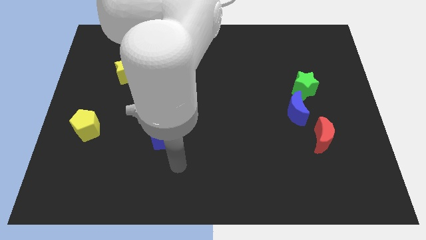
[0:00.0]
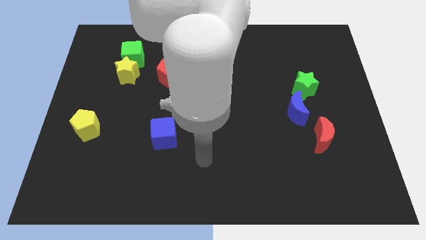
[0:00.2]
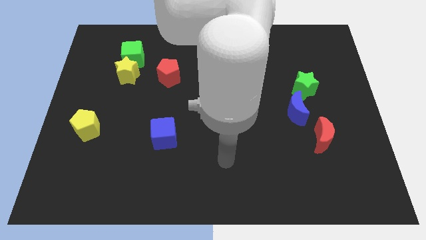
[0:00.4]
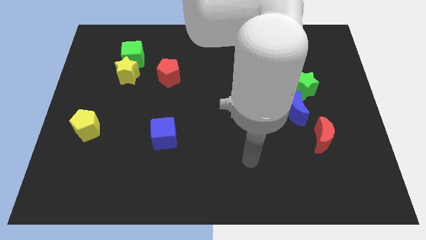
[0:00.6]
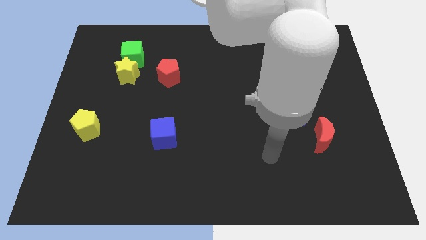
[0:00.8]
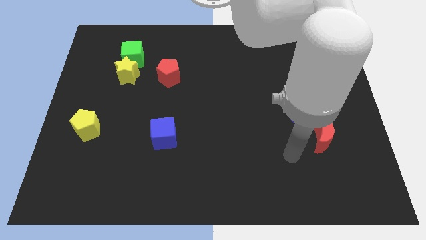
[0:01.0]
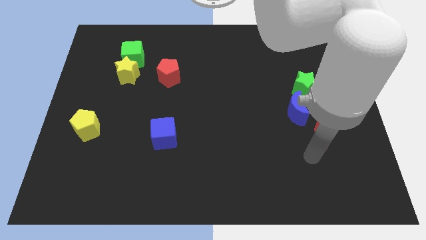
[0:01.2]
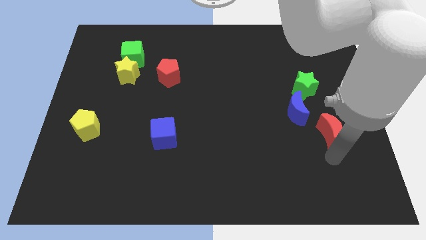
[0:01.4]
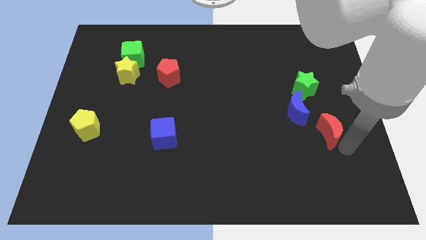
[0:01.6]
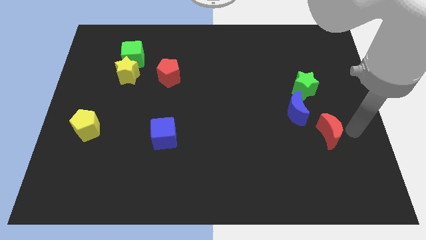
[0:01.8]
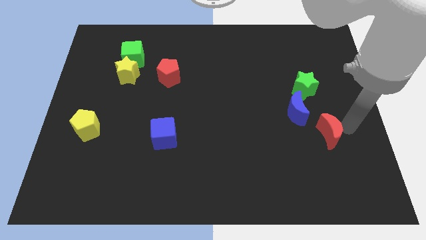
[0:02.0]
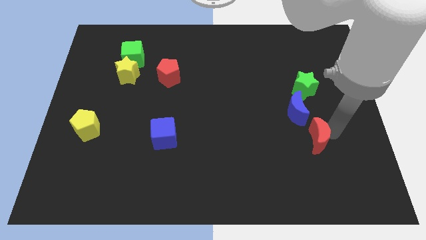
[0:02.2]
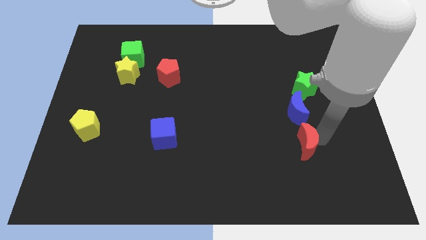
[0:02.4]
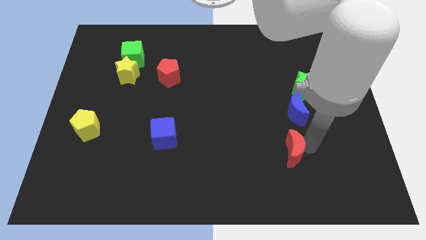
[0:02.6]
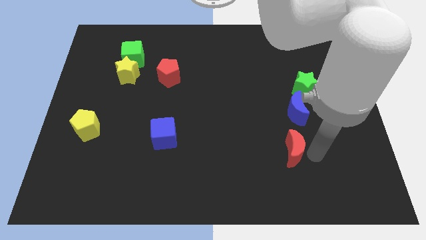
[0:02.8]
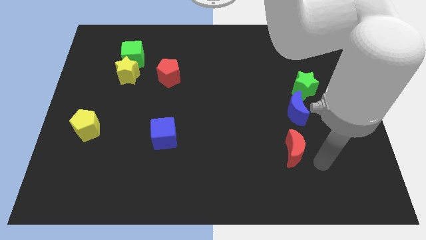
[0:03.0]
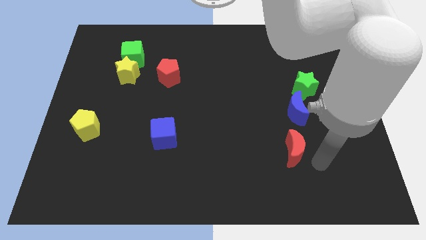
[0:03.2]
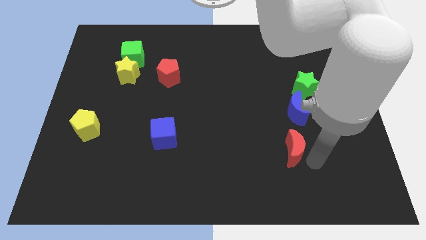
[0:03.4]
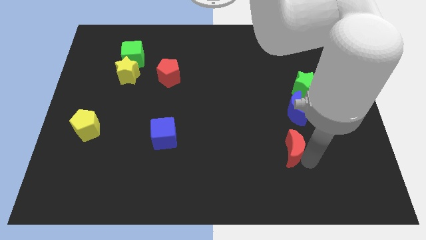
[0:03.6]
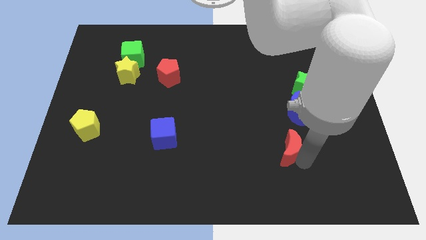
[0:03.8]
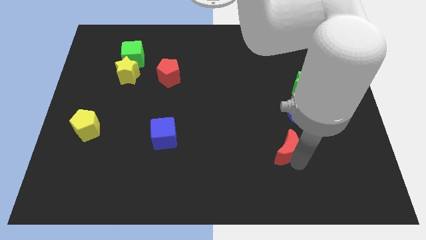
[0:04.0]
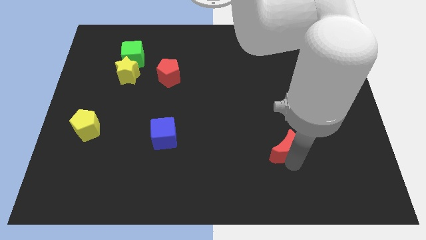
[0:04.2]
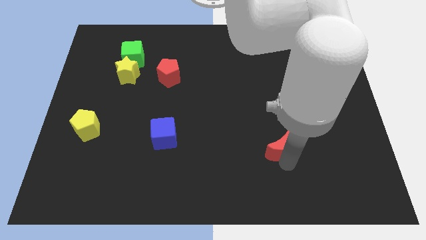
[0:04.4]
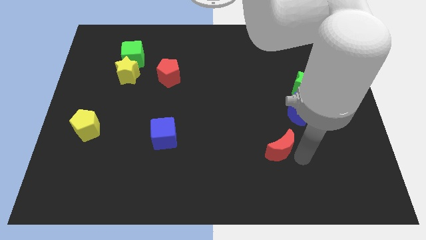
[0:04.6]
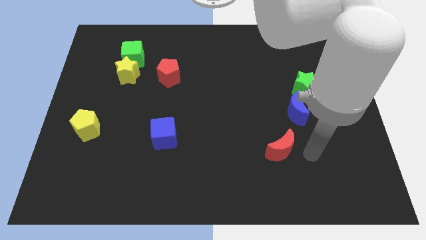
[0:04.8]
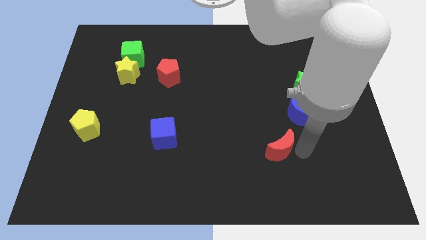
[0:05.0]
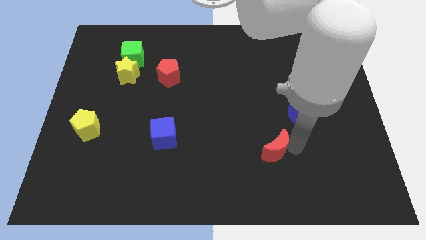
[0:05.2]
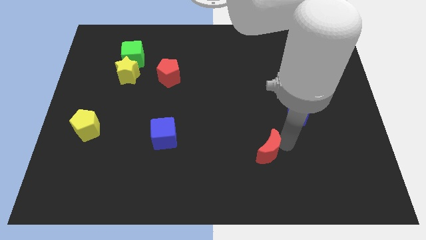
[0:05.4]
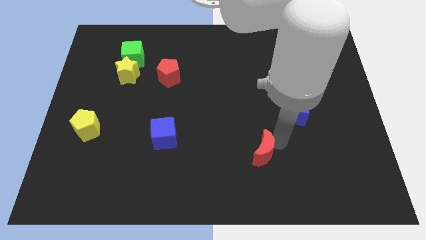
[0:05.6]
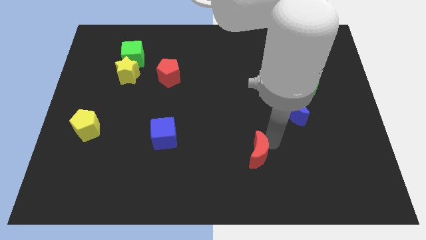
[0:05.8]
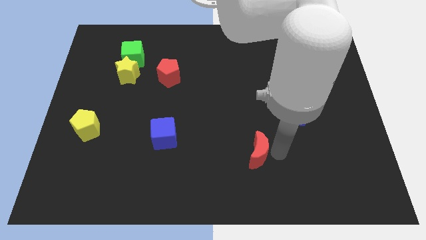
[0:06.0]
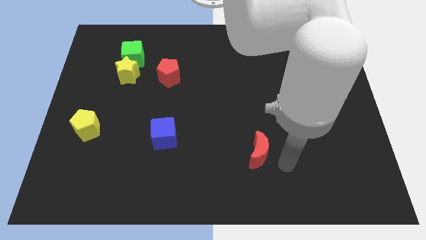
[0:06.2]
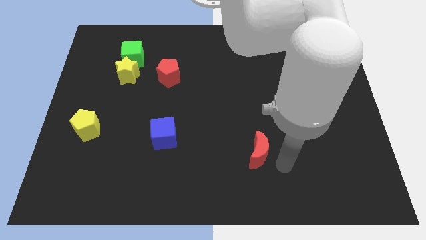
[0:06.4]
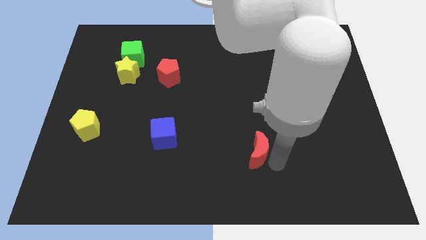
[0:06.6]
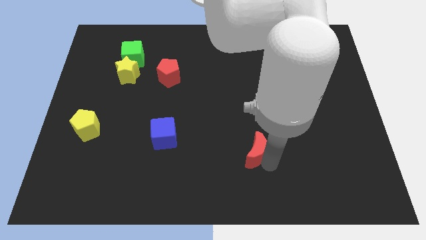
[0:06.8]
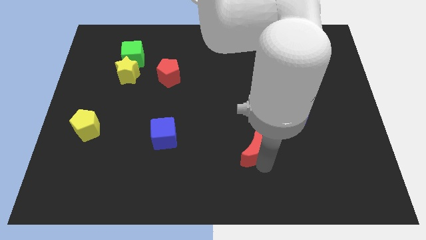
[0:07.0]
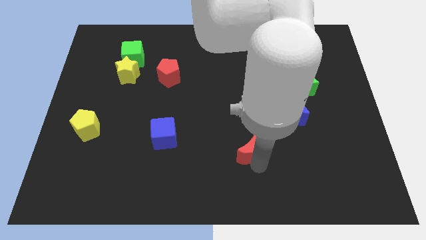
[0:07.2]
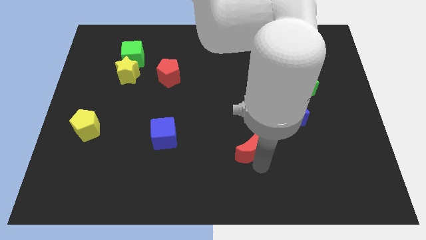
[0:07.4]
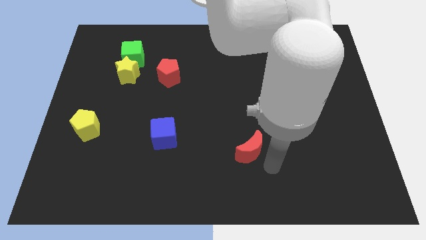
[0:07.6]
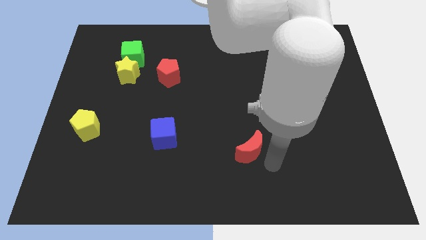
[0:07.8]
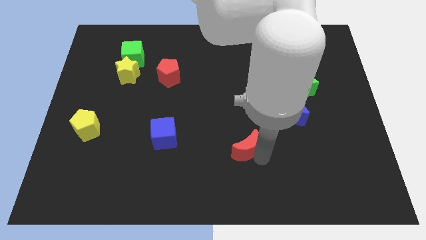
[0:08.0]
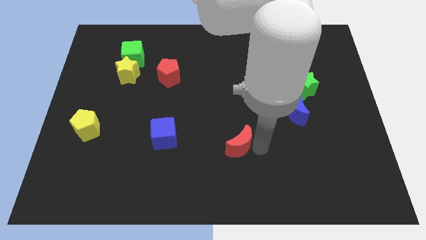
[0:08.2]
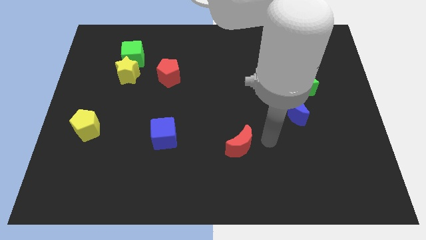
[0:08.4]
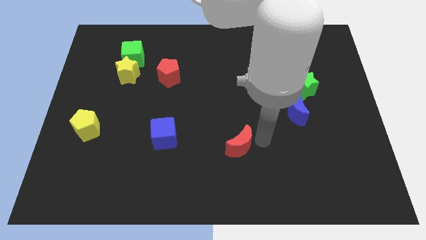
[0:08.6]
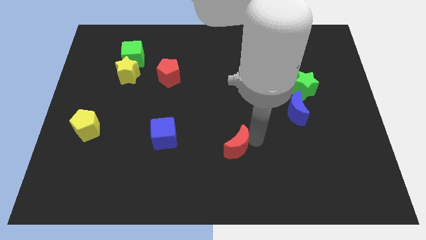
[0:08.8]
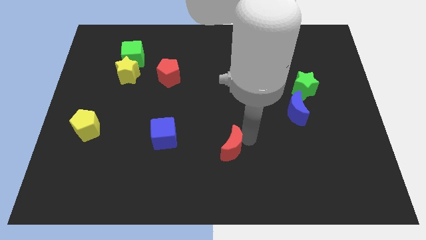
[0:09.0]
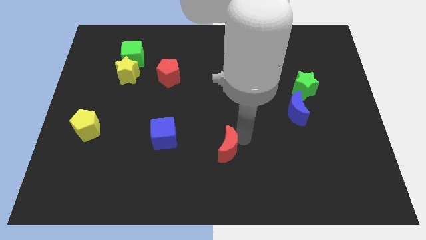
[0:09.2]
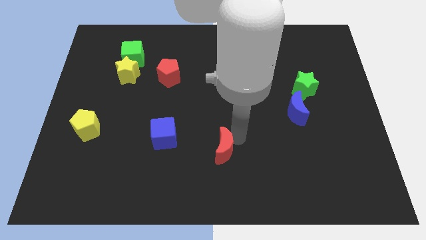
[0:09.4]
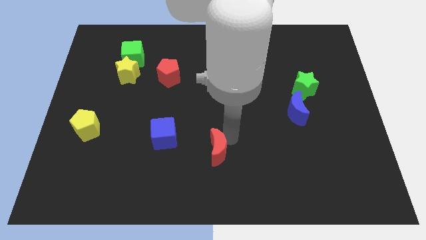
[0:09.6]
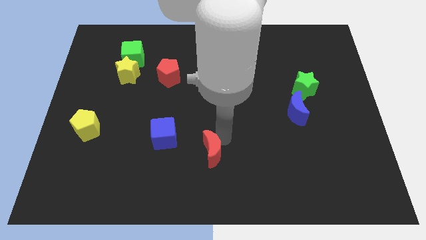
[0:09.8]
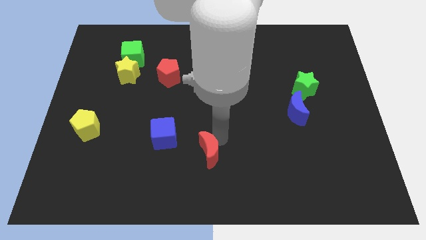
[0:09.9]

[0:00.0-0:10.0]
slide the red moon to the bottom right side of the blue cube

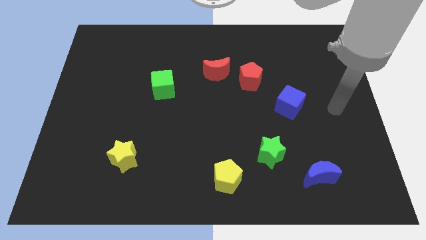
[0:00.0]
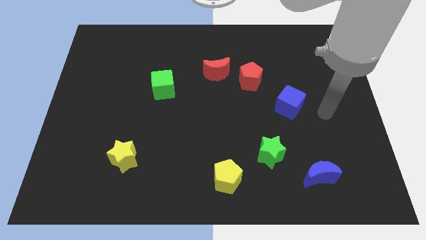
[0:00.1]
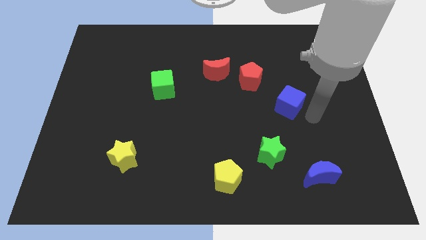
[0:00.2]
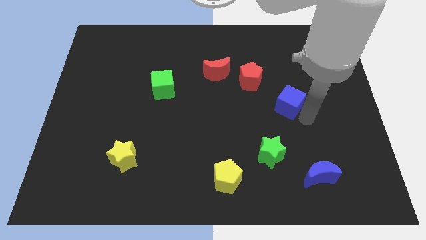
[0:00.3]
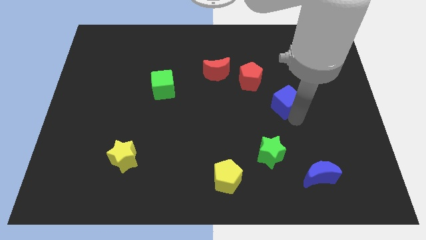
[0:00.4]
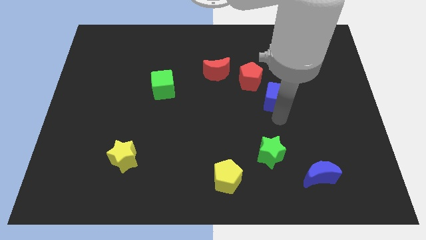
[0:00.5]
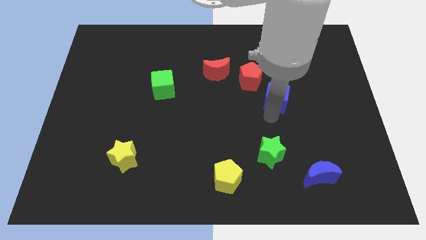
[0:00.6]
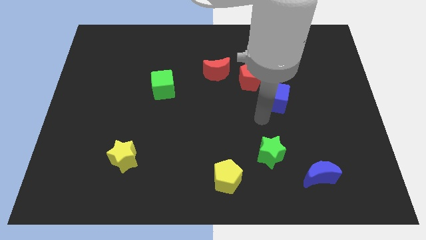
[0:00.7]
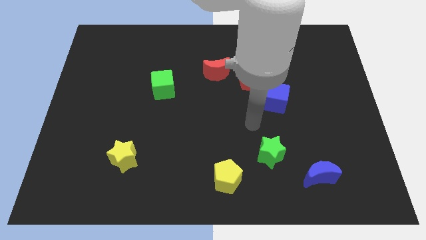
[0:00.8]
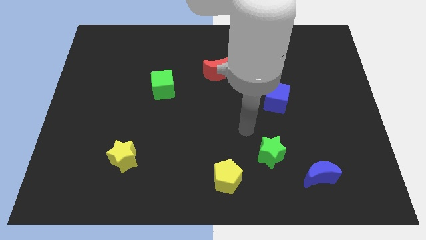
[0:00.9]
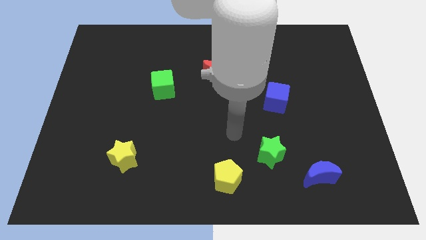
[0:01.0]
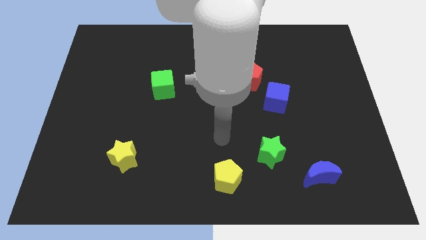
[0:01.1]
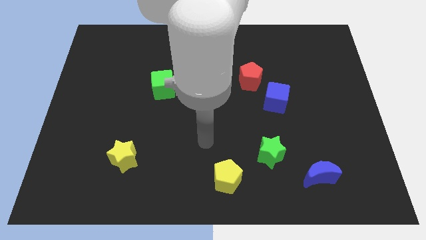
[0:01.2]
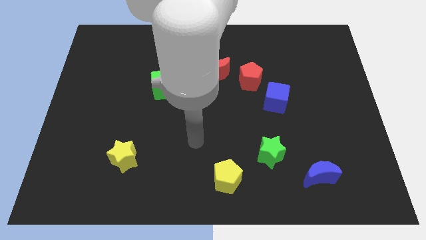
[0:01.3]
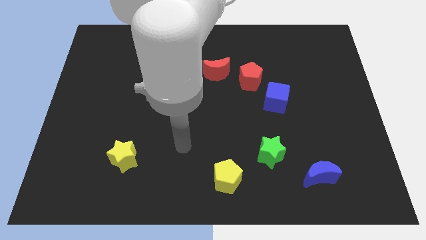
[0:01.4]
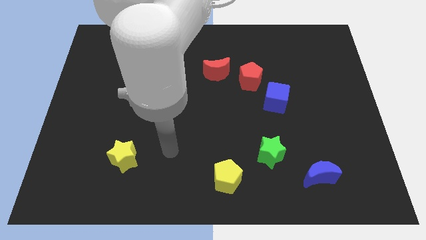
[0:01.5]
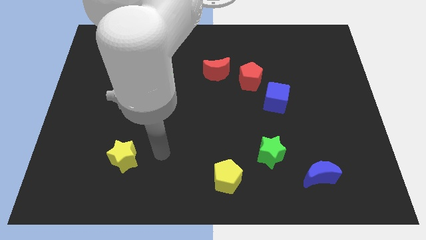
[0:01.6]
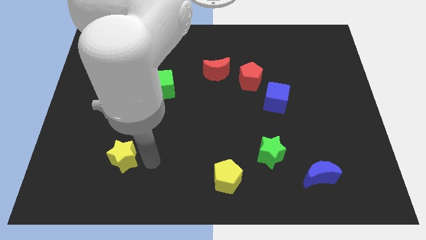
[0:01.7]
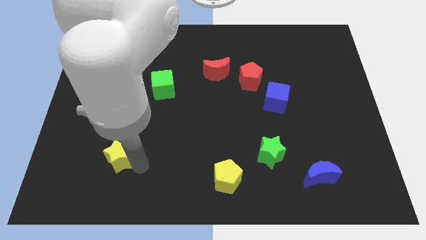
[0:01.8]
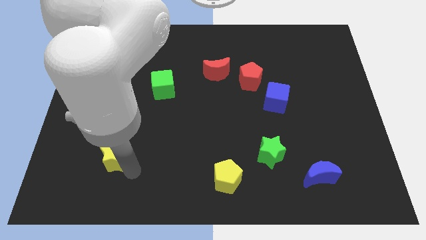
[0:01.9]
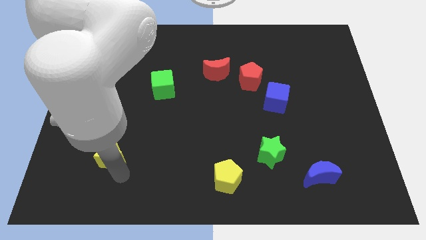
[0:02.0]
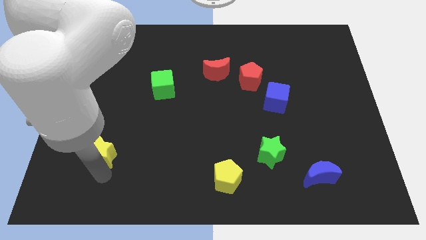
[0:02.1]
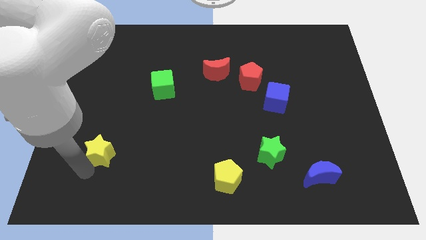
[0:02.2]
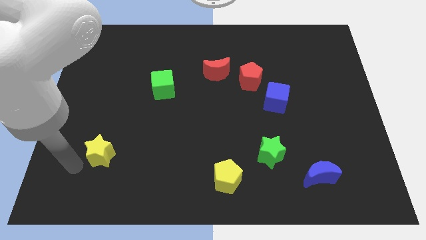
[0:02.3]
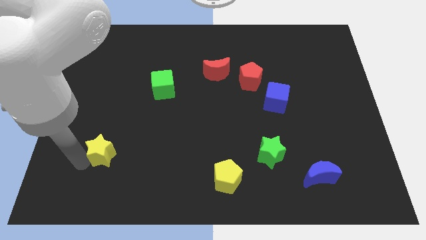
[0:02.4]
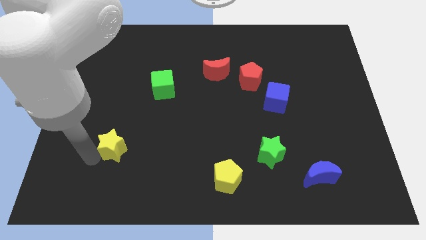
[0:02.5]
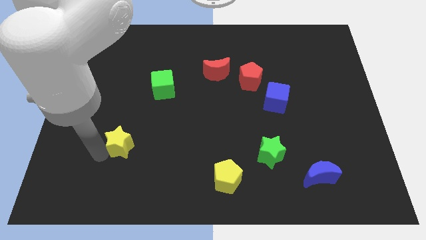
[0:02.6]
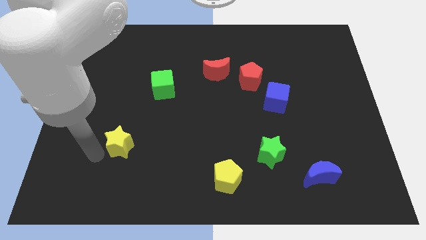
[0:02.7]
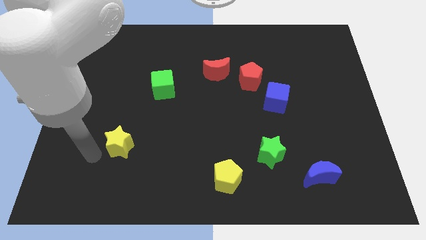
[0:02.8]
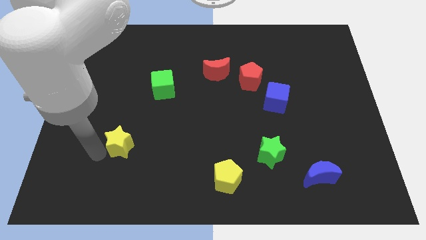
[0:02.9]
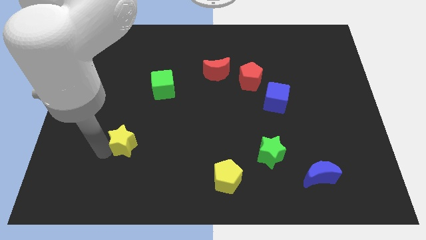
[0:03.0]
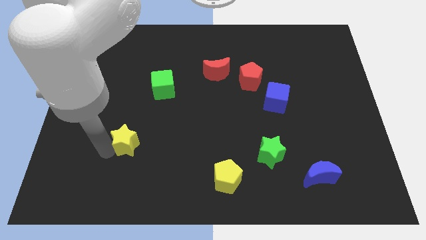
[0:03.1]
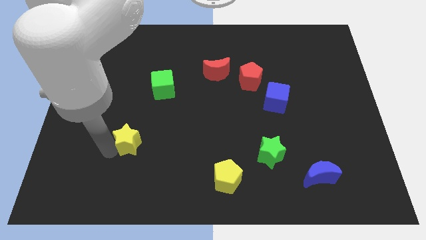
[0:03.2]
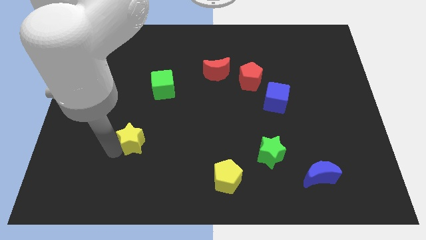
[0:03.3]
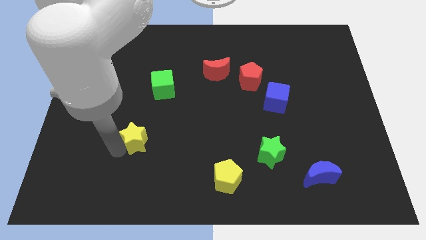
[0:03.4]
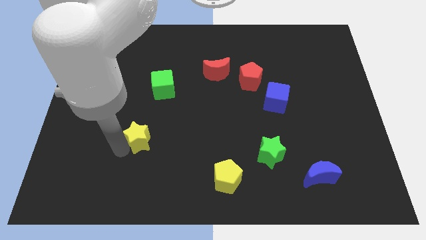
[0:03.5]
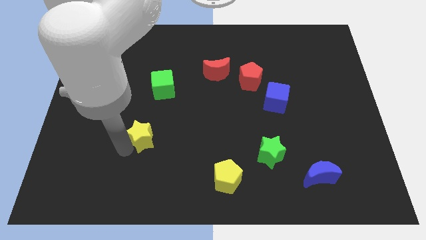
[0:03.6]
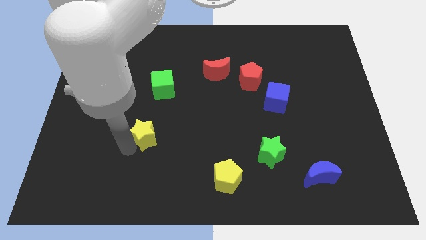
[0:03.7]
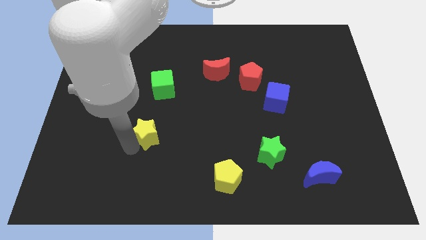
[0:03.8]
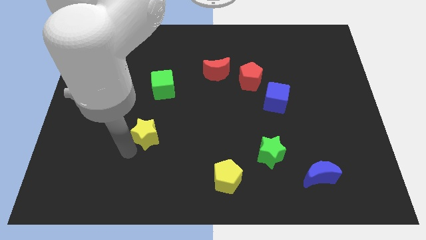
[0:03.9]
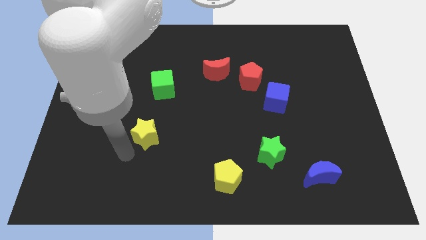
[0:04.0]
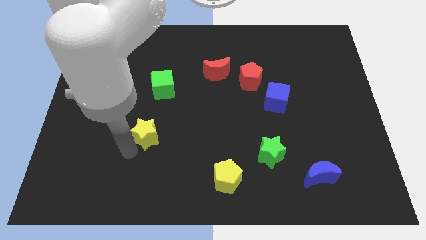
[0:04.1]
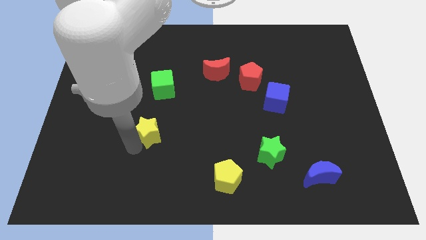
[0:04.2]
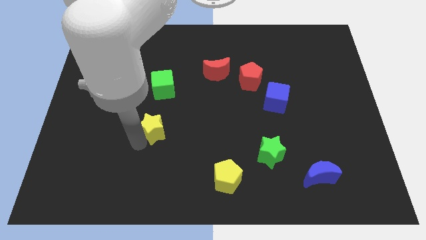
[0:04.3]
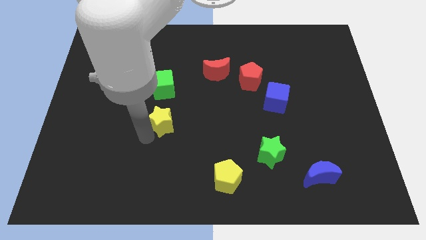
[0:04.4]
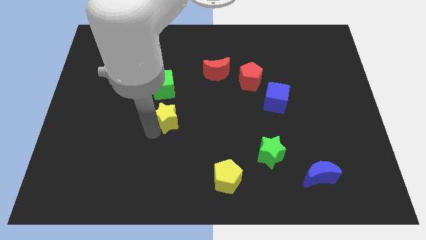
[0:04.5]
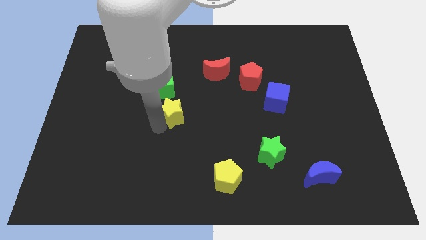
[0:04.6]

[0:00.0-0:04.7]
push the yellow star to the bottom right of the green cube
